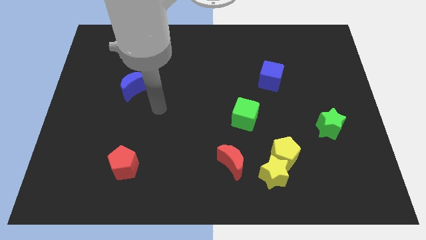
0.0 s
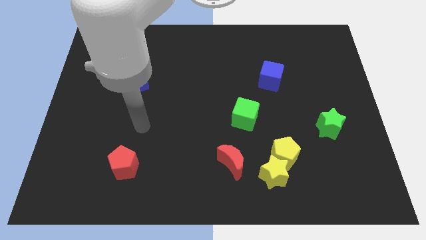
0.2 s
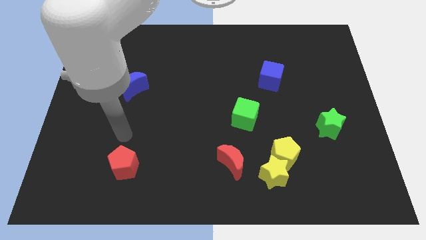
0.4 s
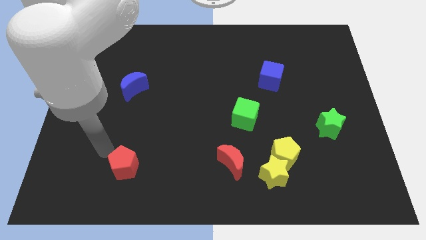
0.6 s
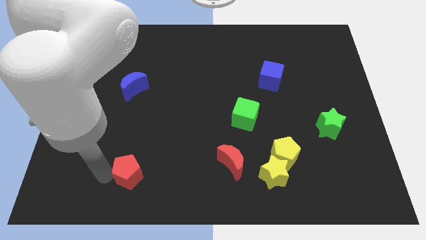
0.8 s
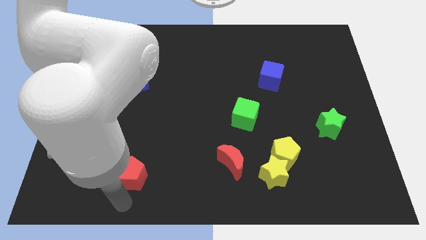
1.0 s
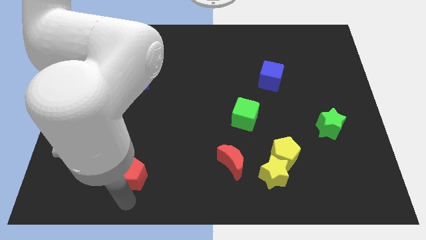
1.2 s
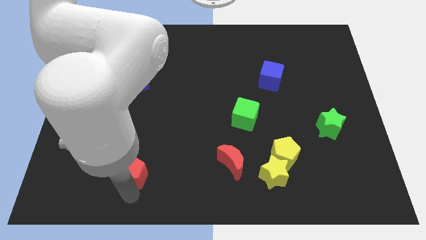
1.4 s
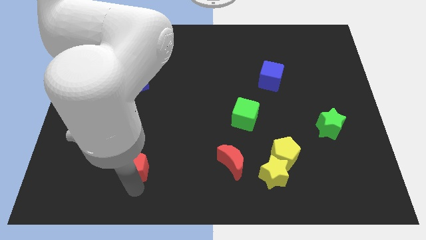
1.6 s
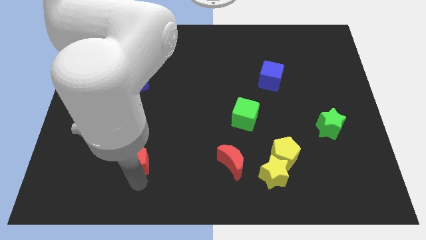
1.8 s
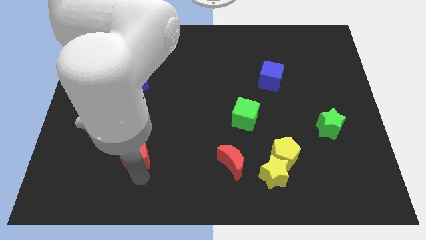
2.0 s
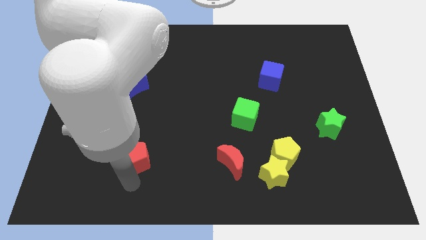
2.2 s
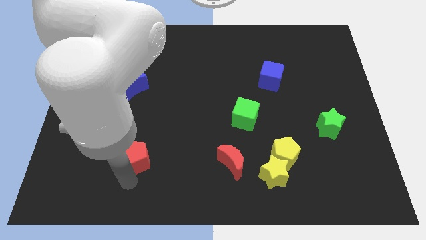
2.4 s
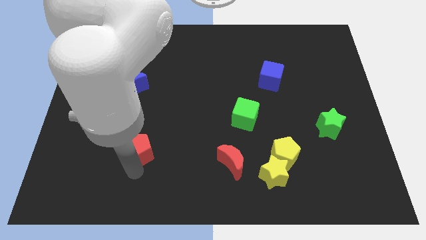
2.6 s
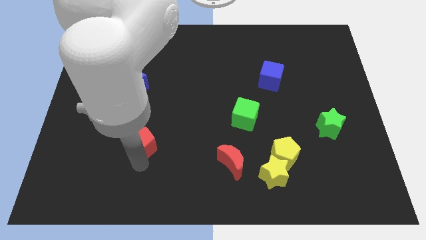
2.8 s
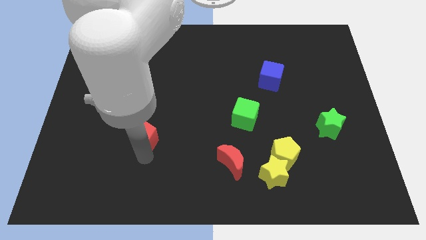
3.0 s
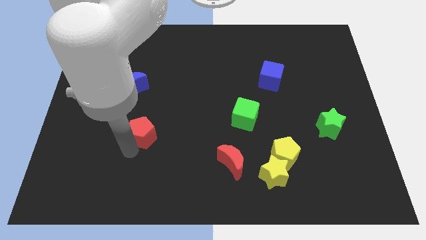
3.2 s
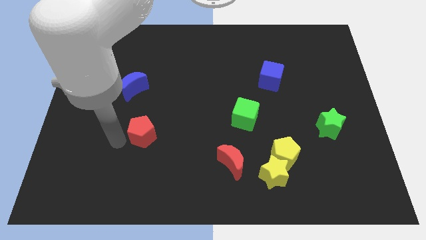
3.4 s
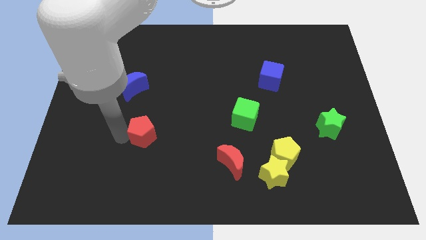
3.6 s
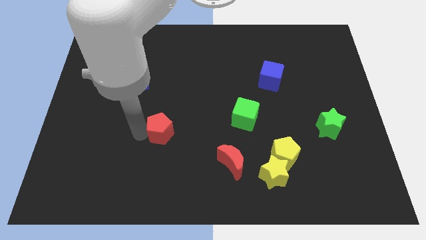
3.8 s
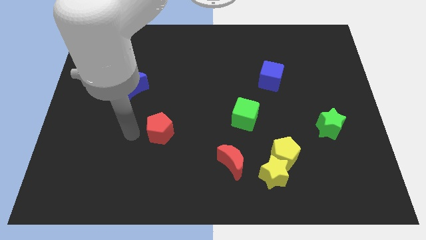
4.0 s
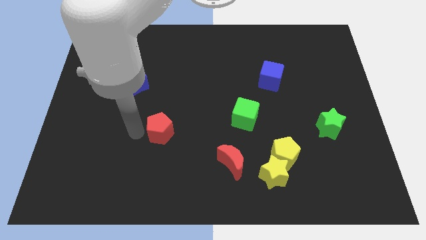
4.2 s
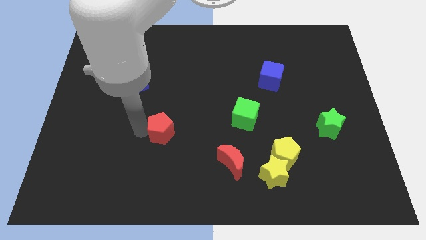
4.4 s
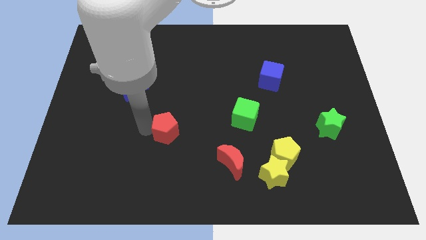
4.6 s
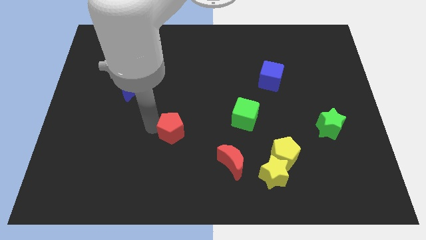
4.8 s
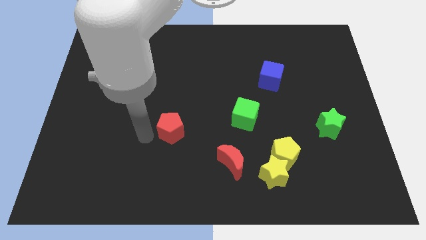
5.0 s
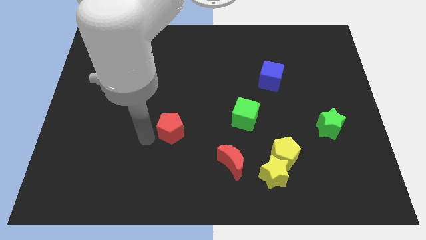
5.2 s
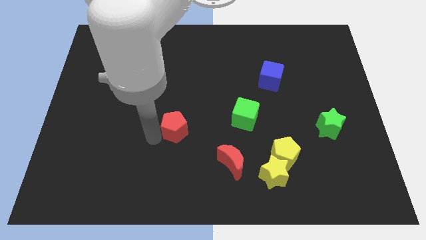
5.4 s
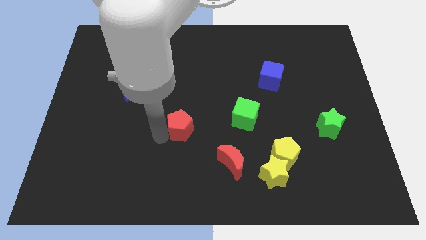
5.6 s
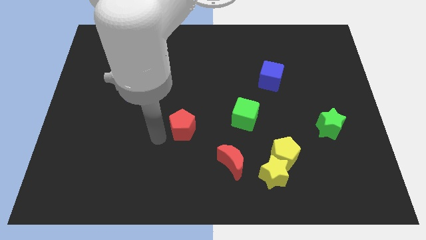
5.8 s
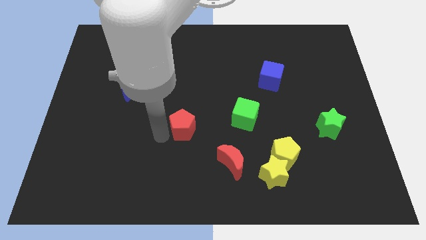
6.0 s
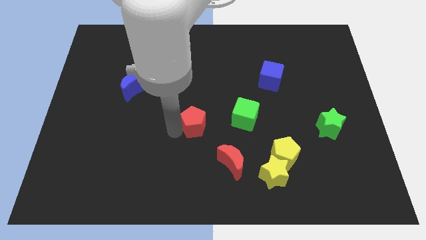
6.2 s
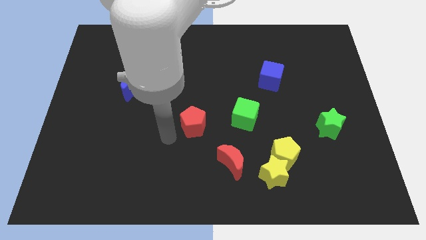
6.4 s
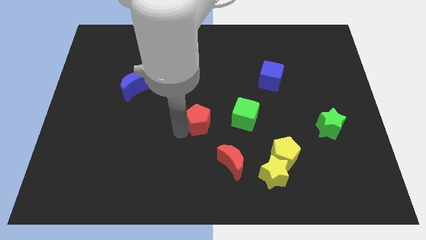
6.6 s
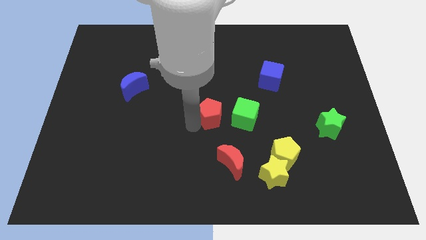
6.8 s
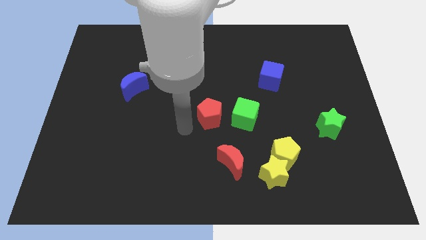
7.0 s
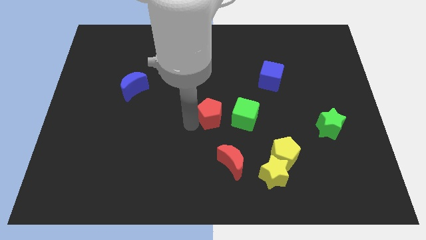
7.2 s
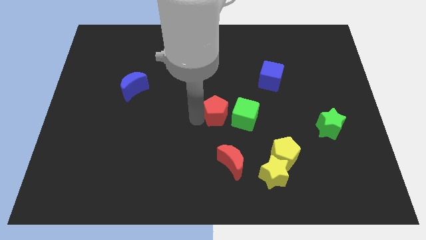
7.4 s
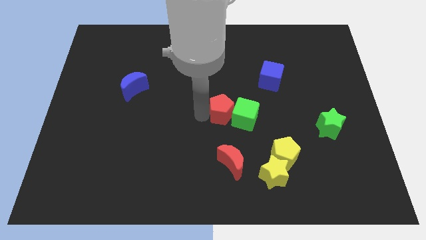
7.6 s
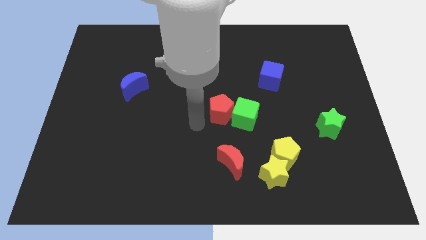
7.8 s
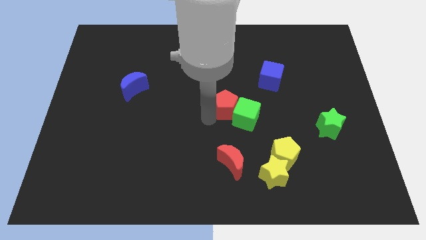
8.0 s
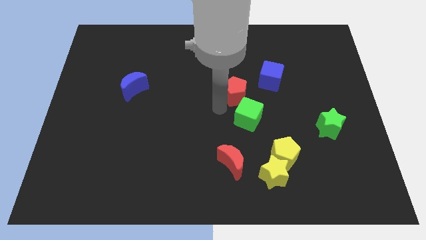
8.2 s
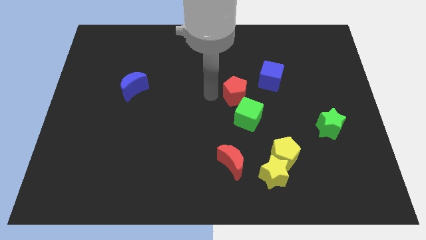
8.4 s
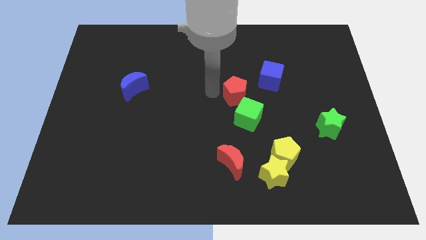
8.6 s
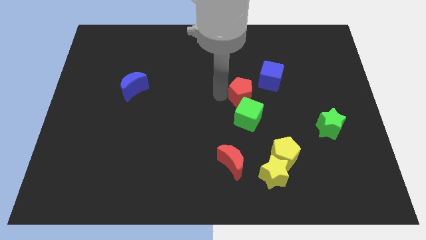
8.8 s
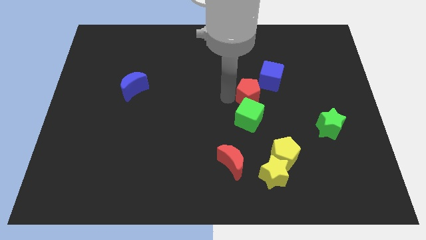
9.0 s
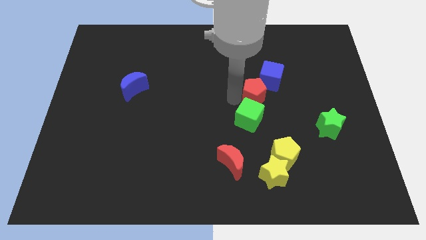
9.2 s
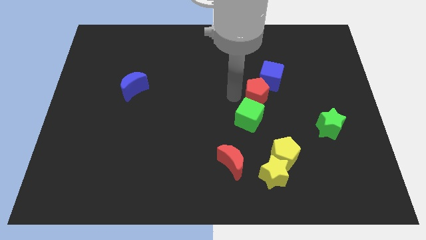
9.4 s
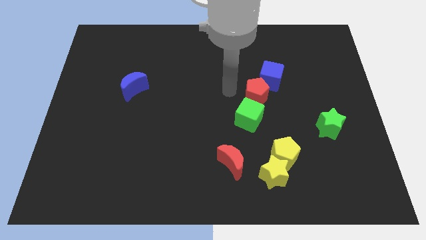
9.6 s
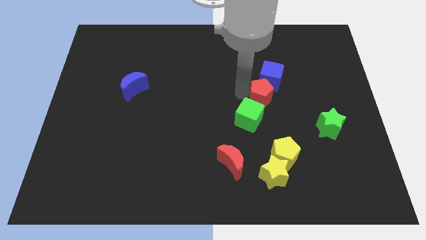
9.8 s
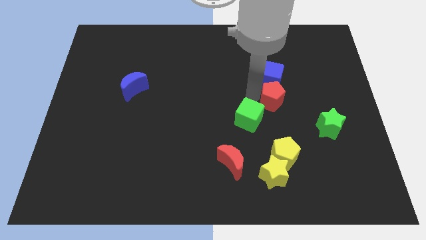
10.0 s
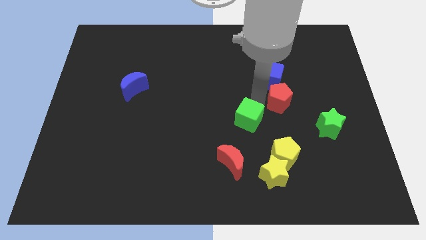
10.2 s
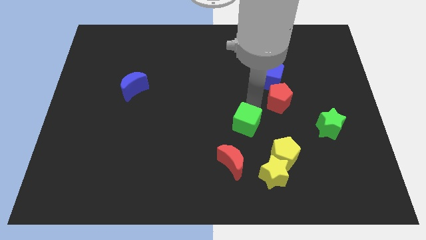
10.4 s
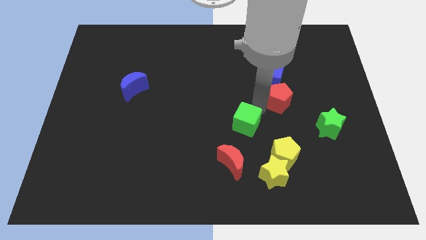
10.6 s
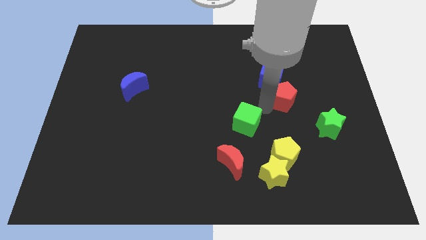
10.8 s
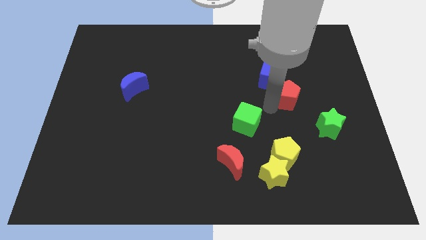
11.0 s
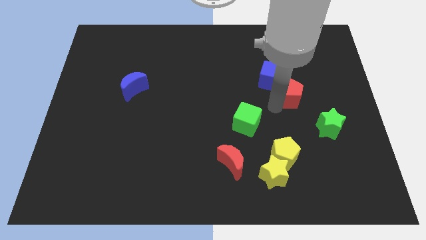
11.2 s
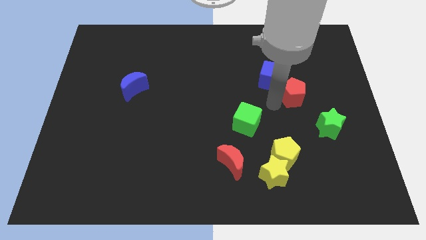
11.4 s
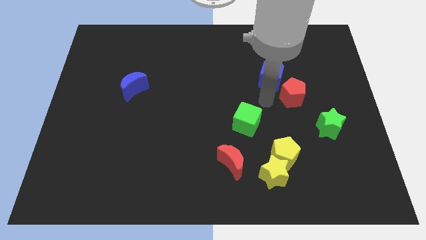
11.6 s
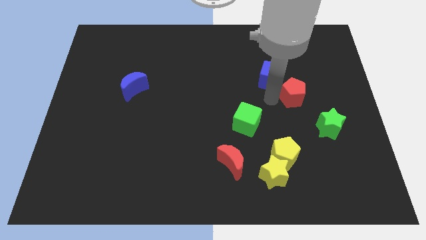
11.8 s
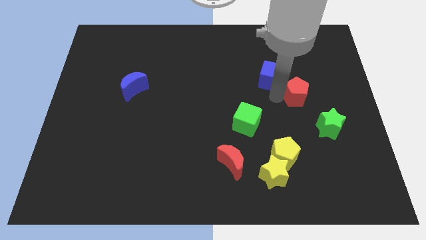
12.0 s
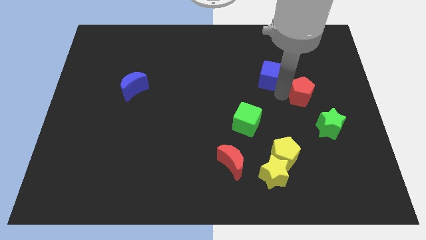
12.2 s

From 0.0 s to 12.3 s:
put the red pentagon to the top of the green star

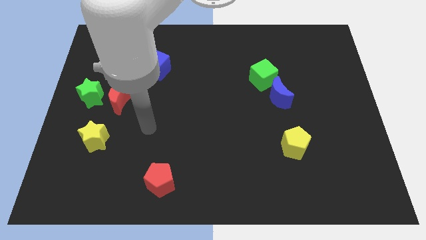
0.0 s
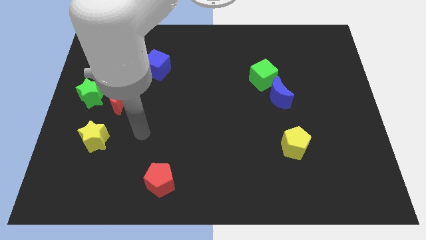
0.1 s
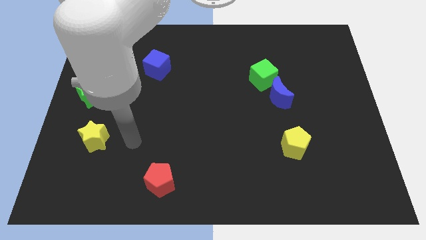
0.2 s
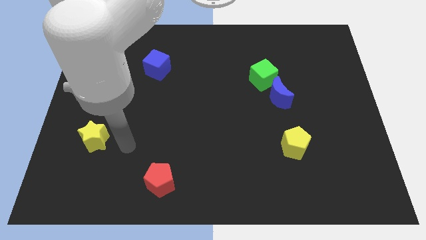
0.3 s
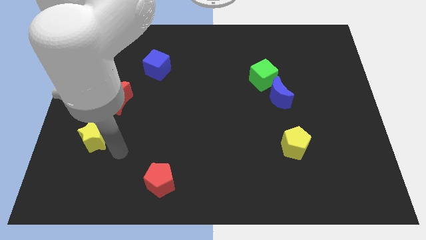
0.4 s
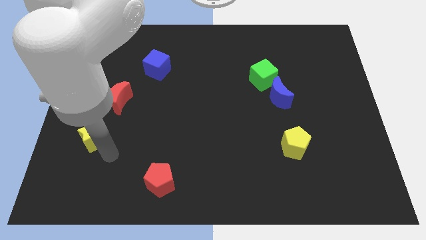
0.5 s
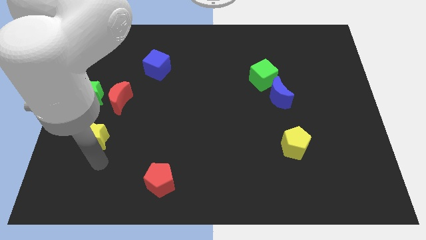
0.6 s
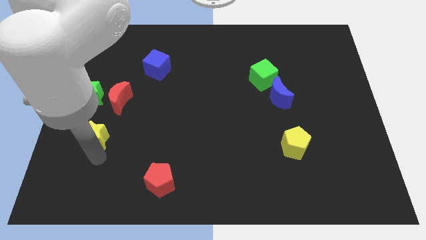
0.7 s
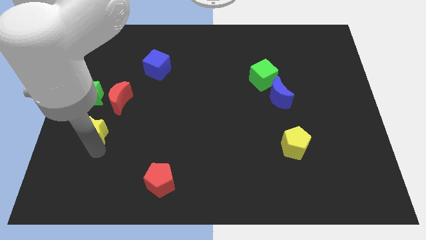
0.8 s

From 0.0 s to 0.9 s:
move the yellow star to the bottom left side of the red moon
